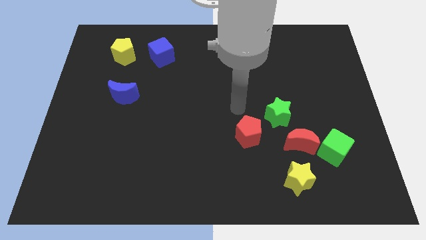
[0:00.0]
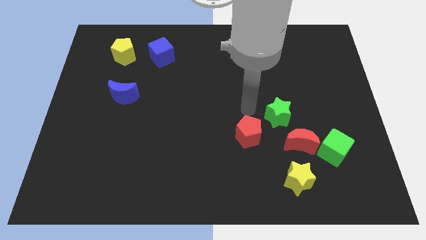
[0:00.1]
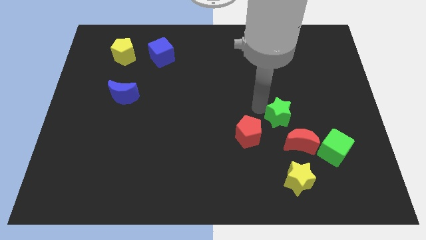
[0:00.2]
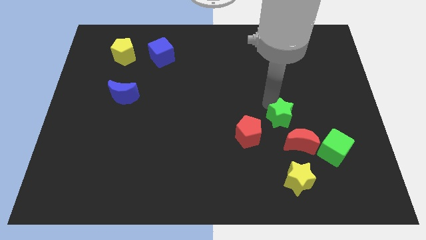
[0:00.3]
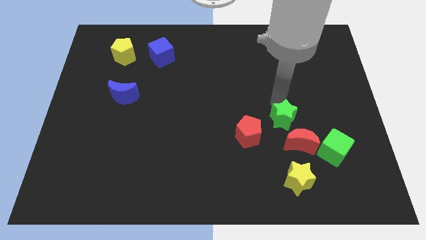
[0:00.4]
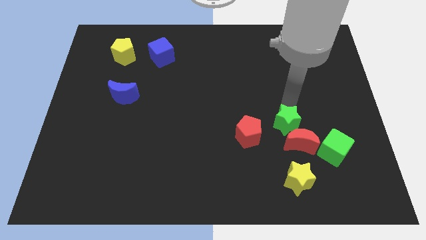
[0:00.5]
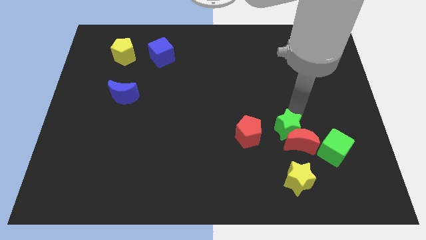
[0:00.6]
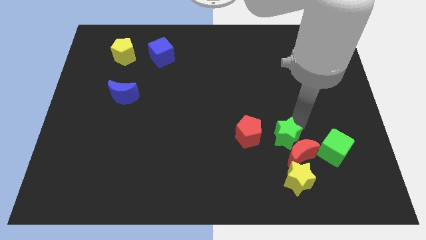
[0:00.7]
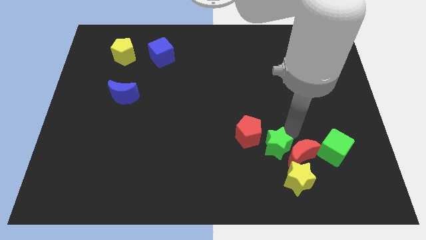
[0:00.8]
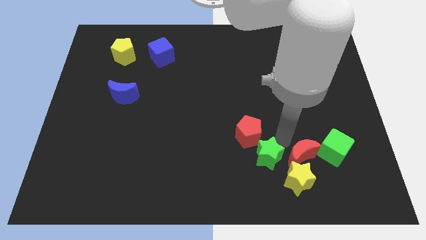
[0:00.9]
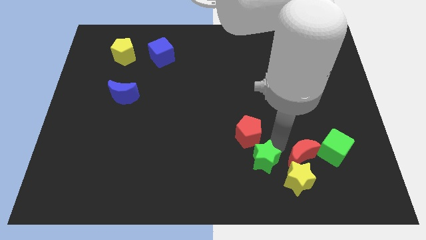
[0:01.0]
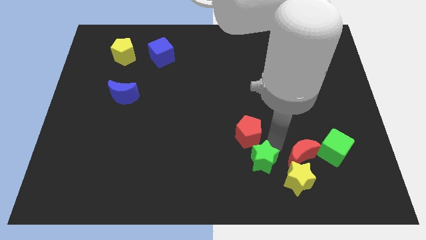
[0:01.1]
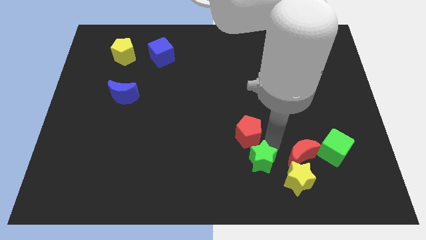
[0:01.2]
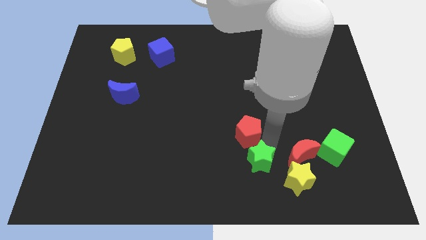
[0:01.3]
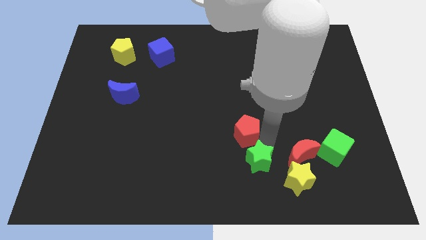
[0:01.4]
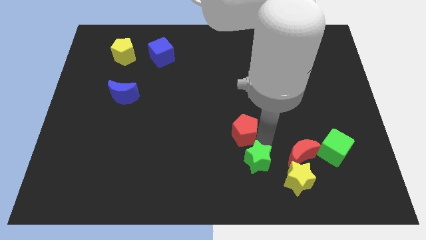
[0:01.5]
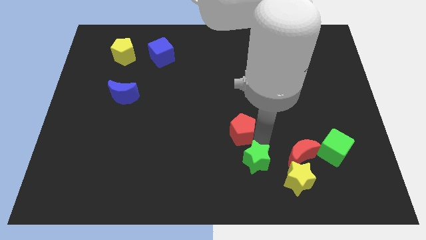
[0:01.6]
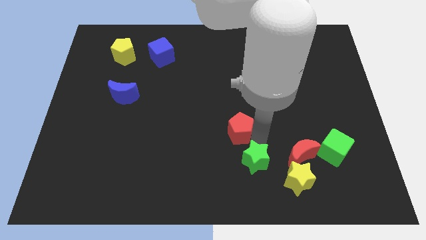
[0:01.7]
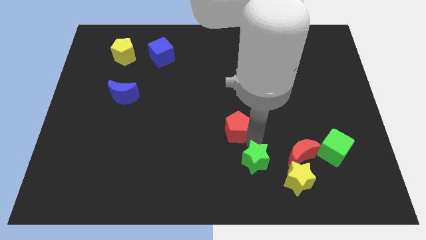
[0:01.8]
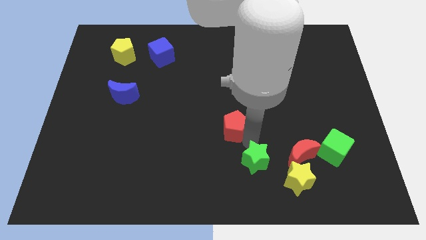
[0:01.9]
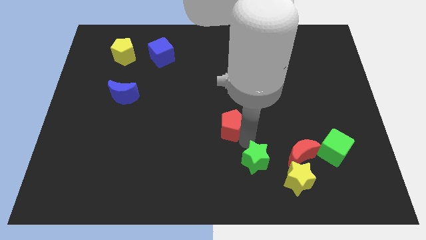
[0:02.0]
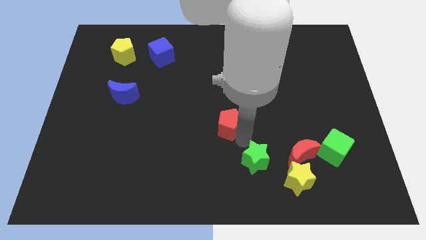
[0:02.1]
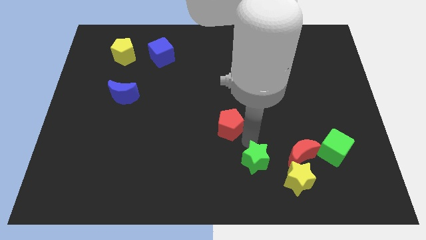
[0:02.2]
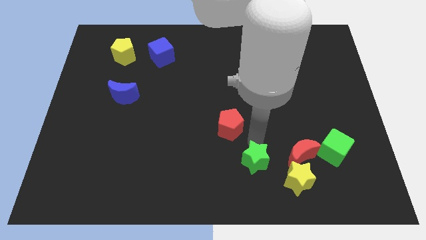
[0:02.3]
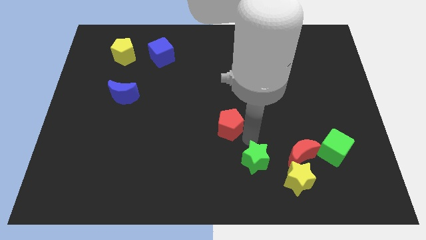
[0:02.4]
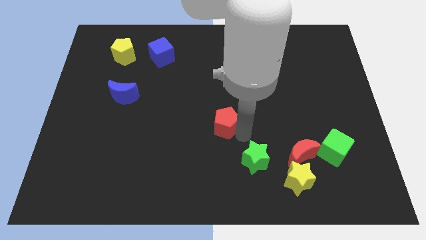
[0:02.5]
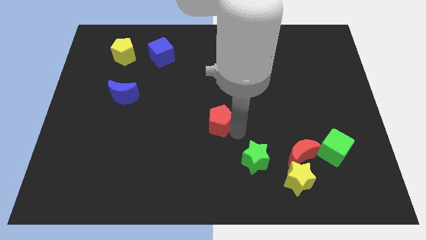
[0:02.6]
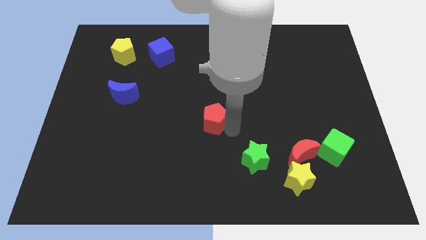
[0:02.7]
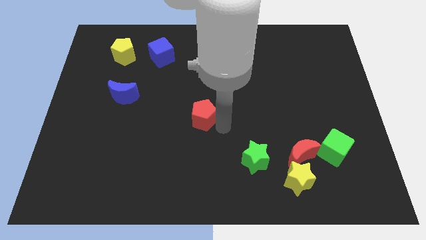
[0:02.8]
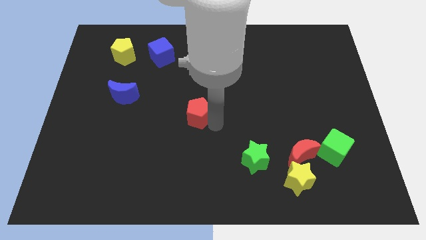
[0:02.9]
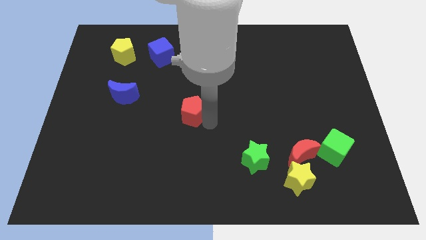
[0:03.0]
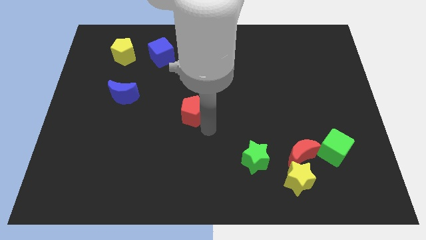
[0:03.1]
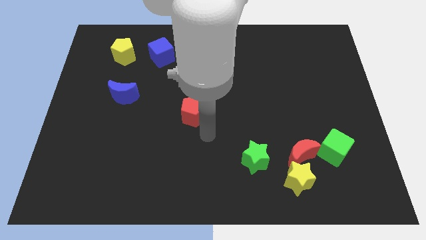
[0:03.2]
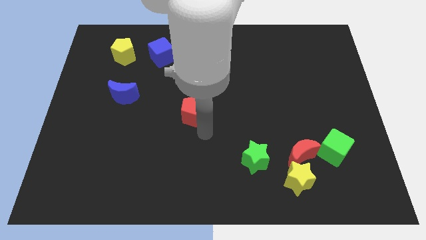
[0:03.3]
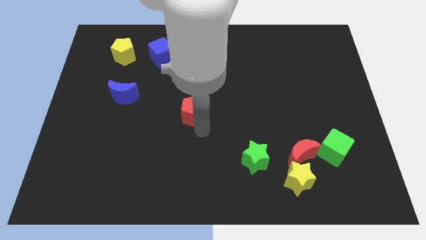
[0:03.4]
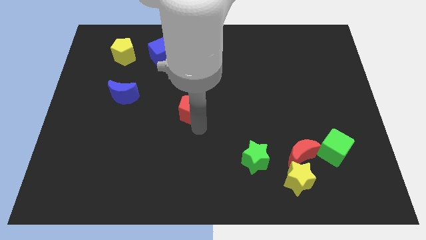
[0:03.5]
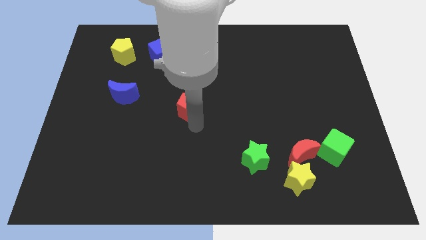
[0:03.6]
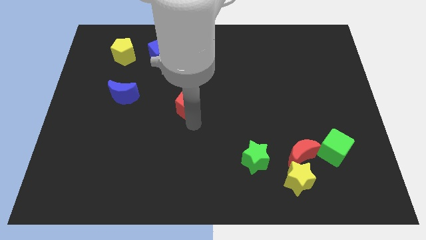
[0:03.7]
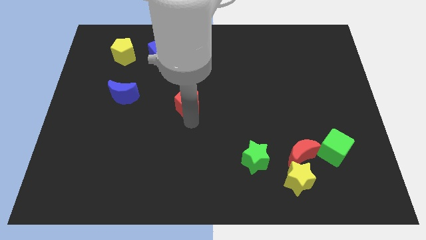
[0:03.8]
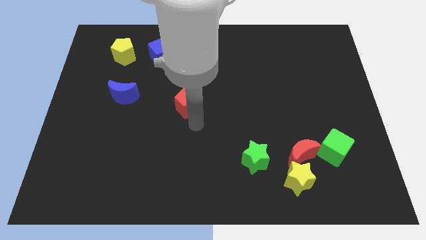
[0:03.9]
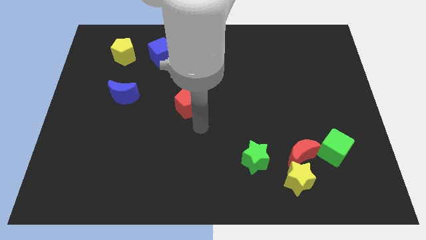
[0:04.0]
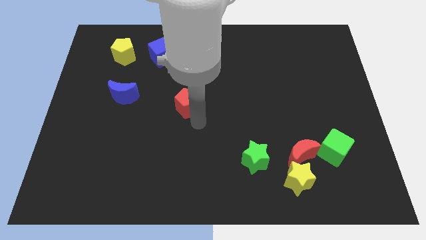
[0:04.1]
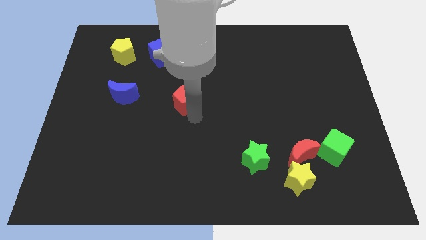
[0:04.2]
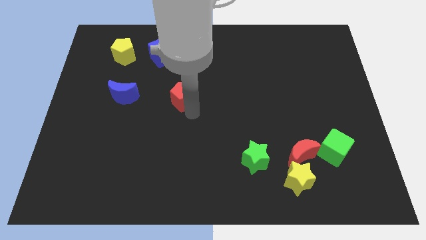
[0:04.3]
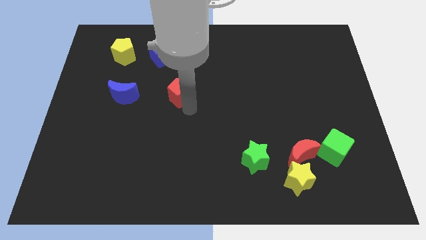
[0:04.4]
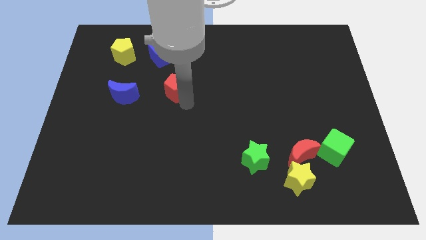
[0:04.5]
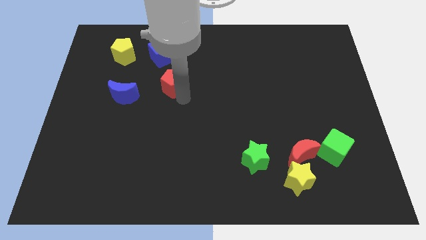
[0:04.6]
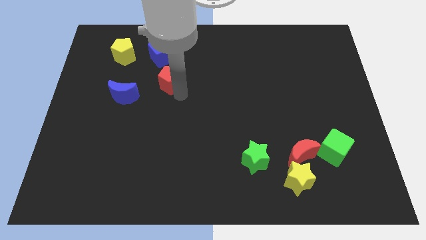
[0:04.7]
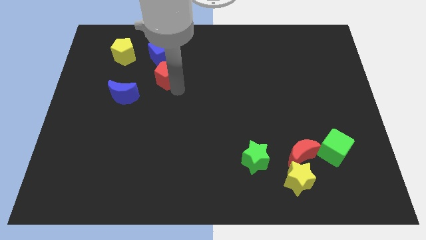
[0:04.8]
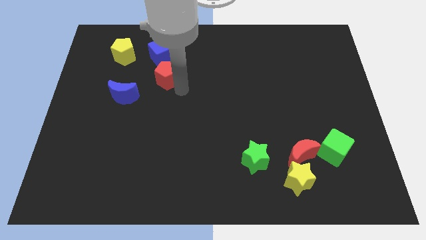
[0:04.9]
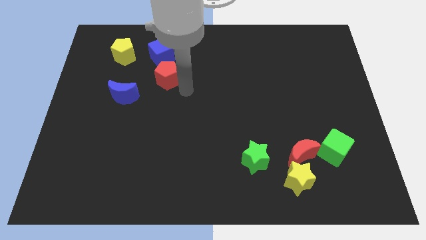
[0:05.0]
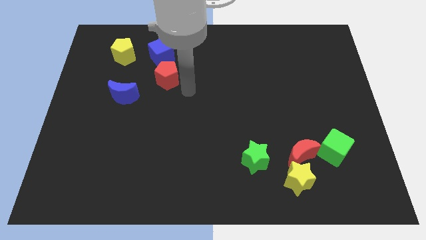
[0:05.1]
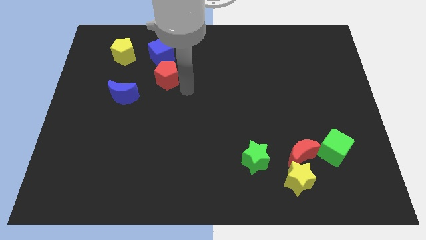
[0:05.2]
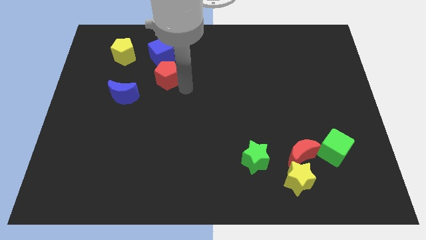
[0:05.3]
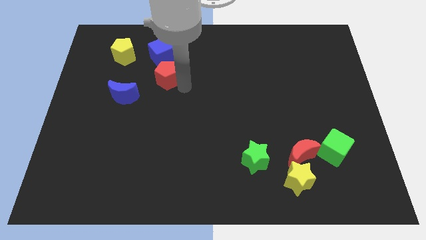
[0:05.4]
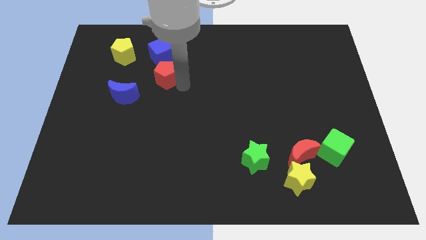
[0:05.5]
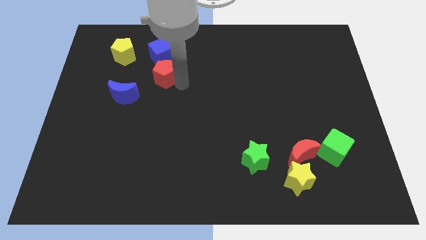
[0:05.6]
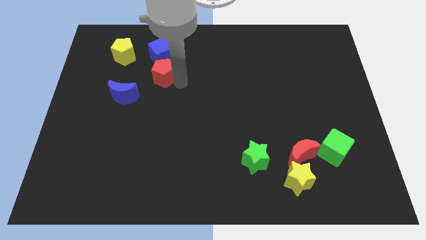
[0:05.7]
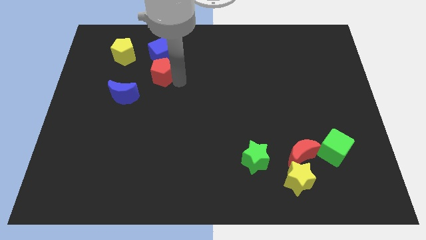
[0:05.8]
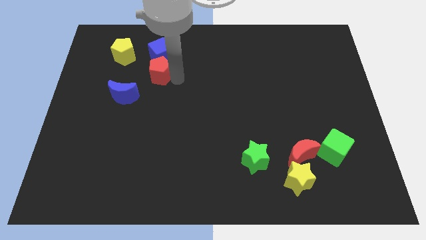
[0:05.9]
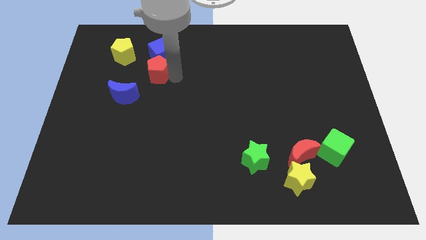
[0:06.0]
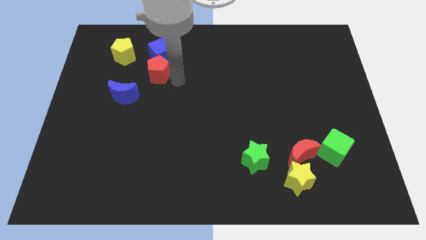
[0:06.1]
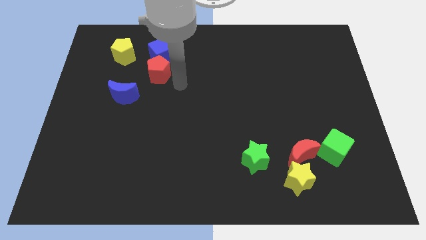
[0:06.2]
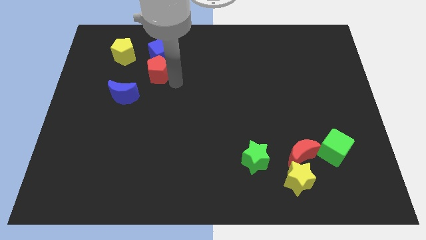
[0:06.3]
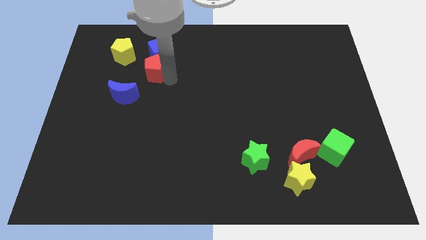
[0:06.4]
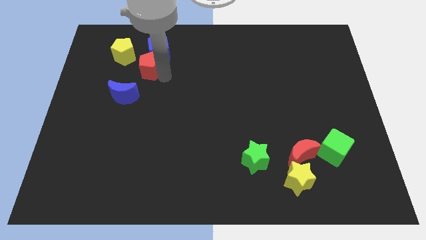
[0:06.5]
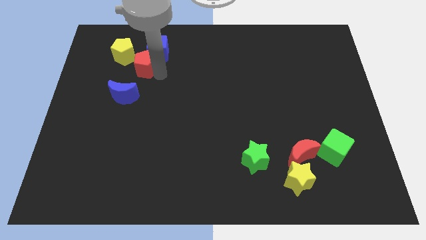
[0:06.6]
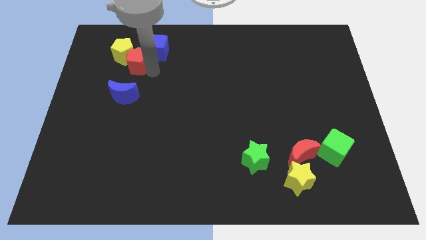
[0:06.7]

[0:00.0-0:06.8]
put the red pentagon towards the yellow pentagon
